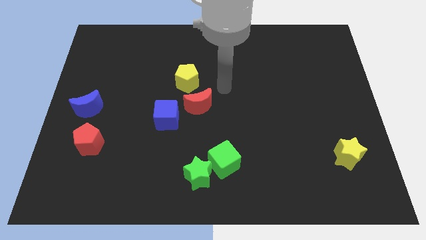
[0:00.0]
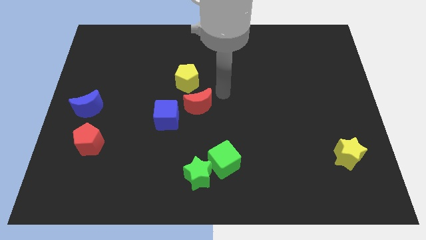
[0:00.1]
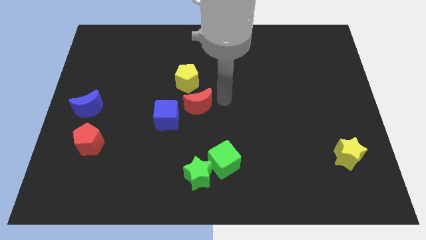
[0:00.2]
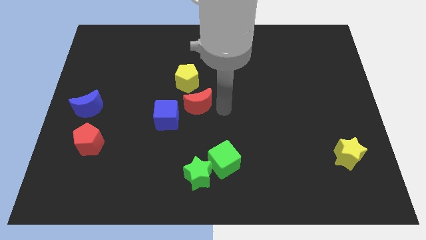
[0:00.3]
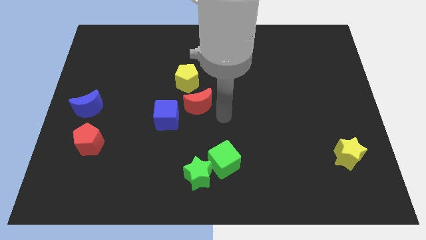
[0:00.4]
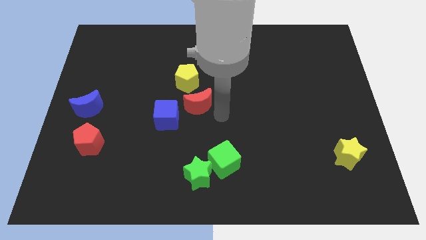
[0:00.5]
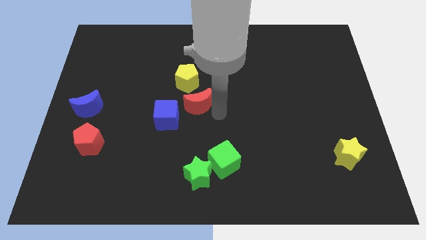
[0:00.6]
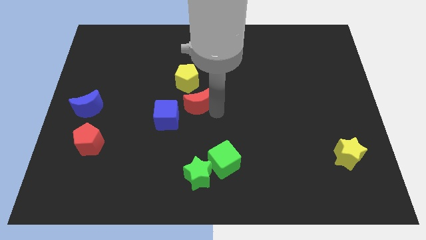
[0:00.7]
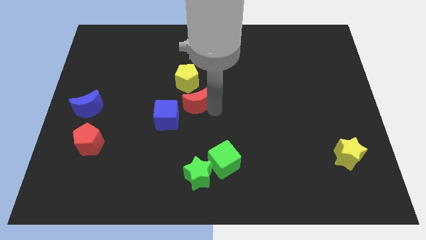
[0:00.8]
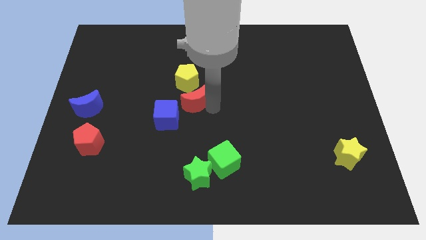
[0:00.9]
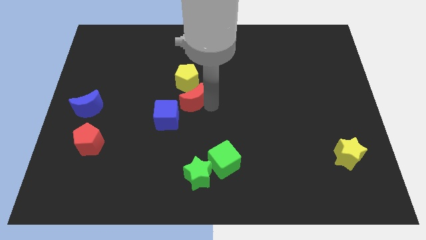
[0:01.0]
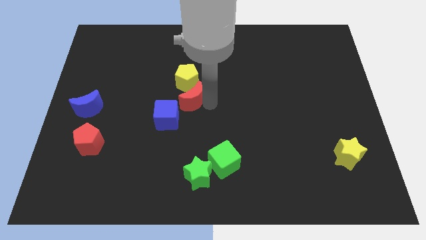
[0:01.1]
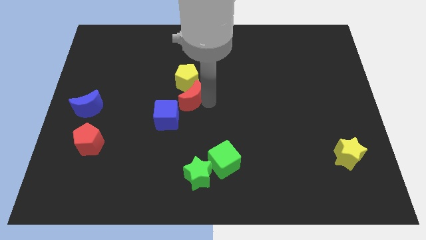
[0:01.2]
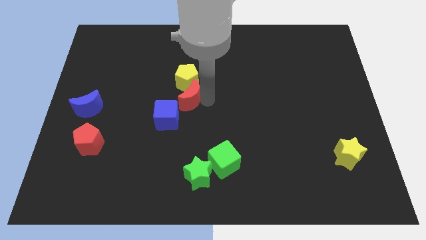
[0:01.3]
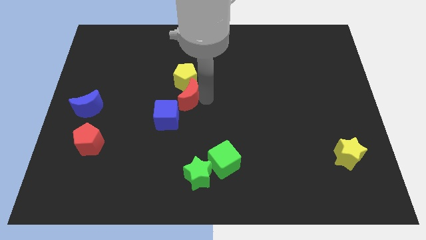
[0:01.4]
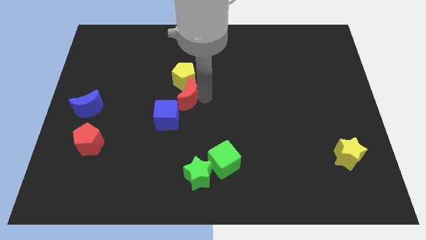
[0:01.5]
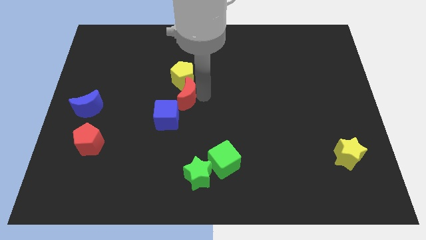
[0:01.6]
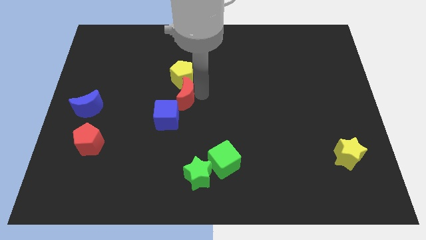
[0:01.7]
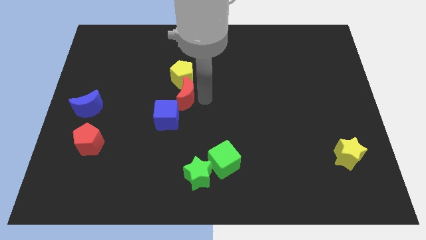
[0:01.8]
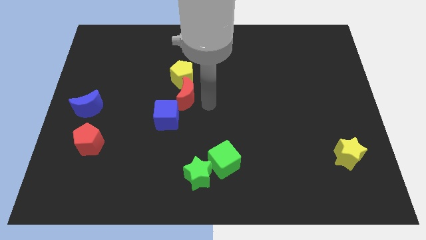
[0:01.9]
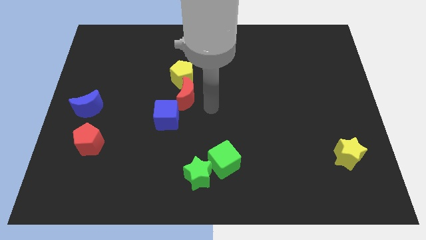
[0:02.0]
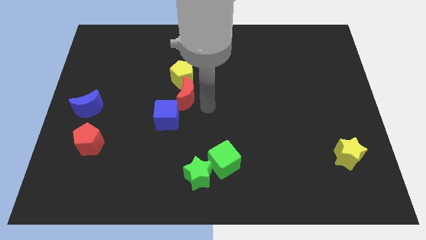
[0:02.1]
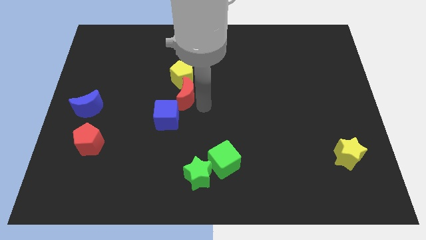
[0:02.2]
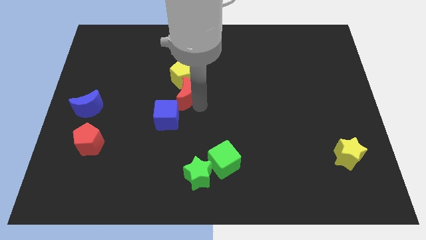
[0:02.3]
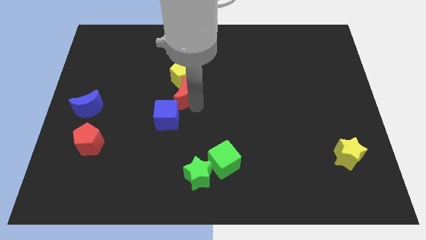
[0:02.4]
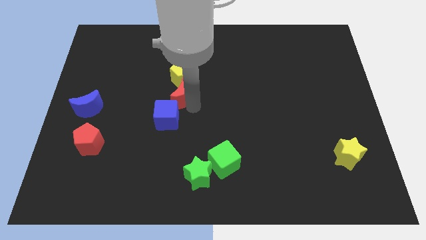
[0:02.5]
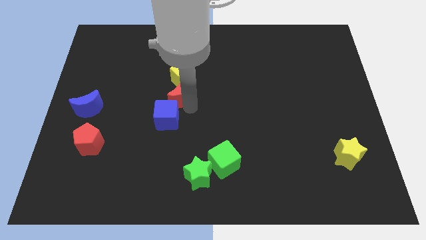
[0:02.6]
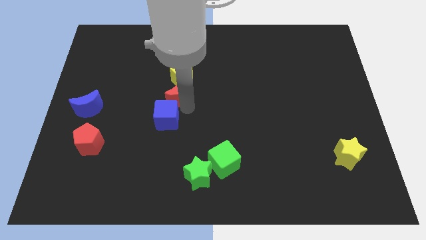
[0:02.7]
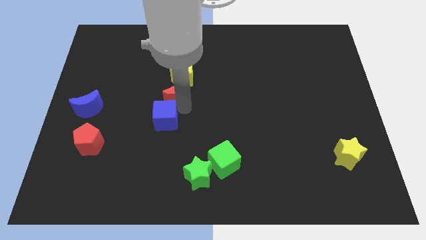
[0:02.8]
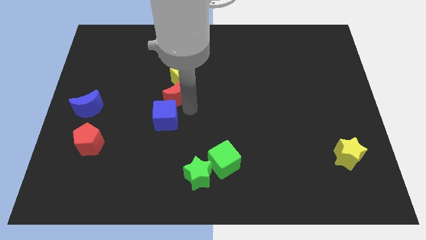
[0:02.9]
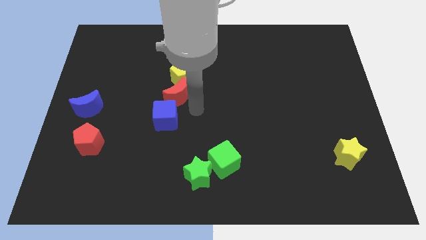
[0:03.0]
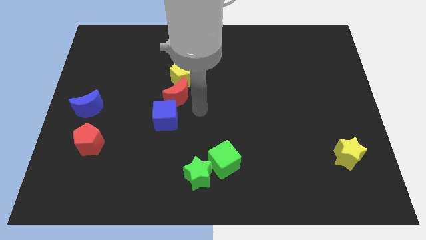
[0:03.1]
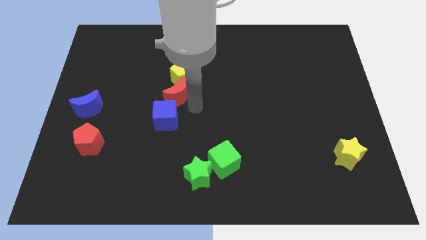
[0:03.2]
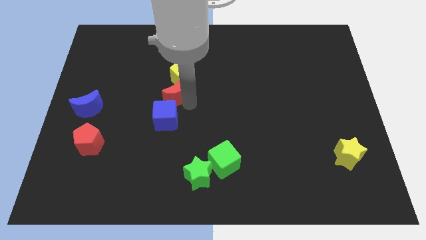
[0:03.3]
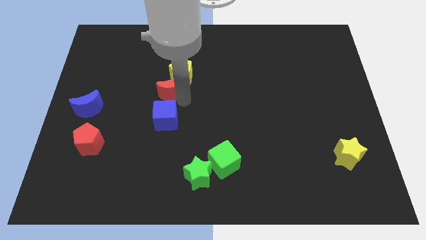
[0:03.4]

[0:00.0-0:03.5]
push the red moon a bit upwards and to the left diagonally

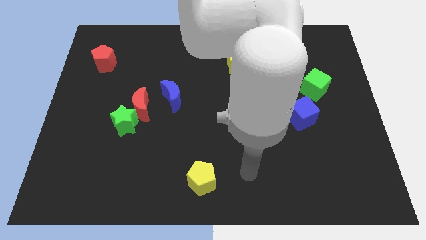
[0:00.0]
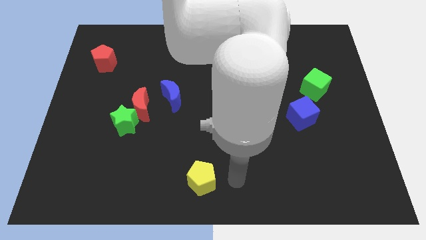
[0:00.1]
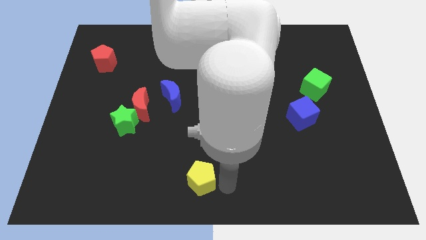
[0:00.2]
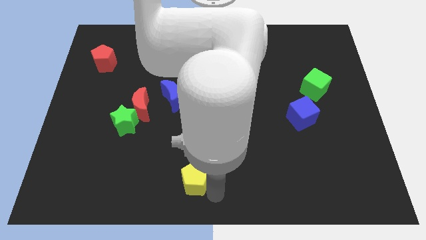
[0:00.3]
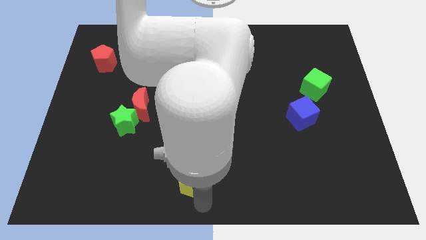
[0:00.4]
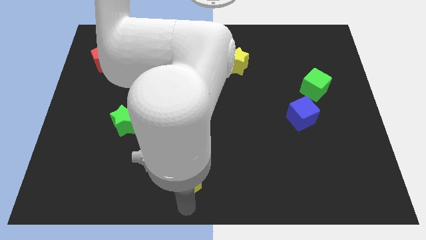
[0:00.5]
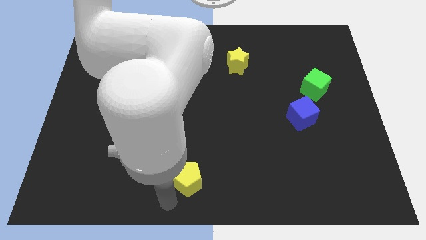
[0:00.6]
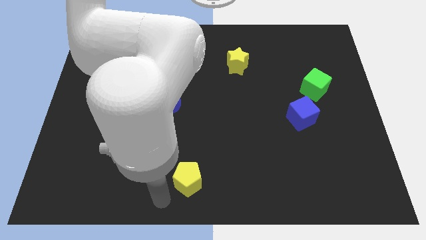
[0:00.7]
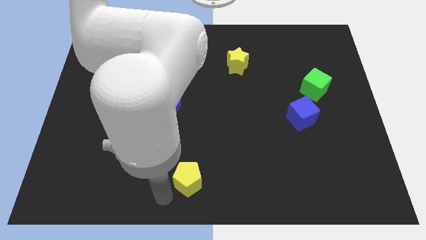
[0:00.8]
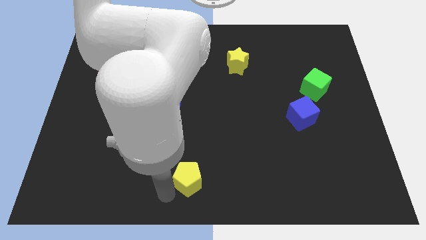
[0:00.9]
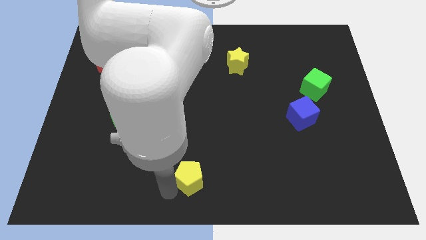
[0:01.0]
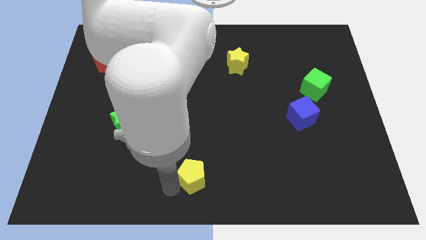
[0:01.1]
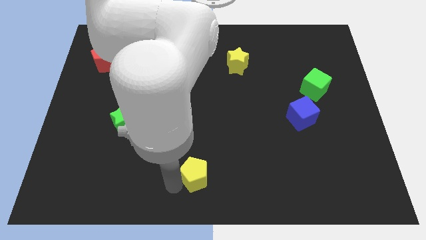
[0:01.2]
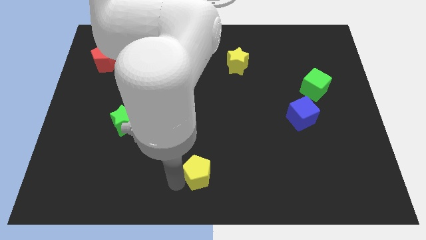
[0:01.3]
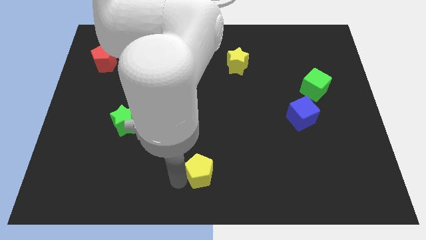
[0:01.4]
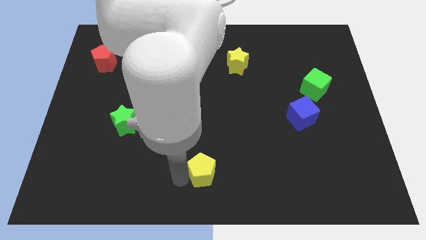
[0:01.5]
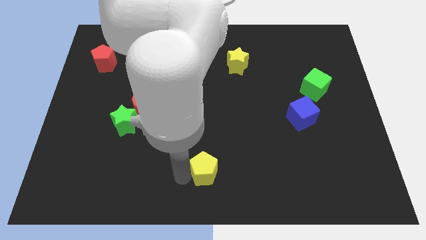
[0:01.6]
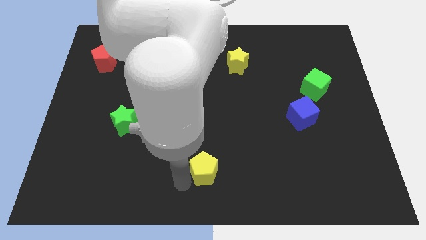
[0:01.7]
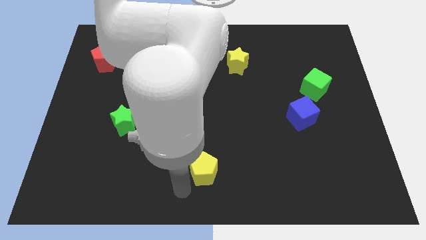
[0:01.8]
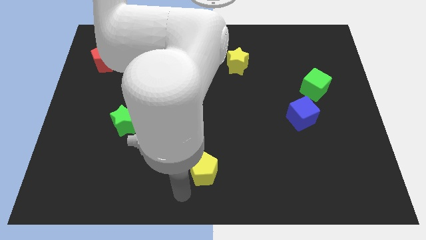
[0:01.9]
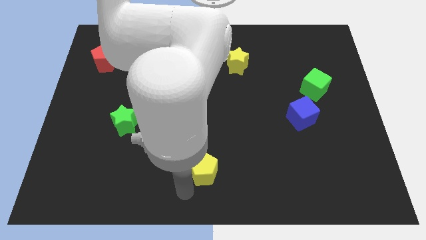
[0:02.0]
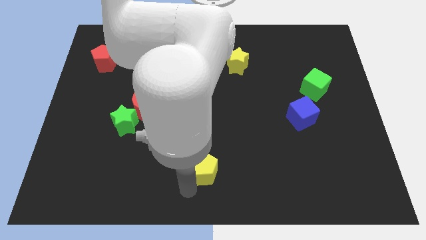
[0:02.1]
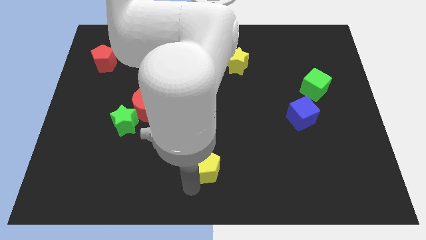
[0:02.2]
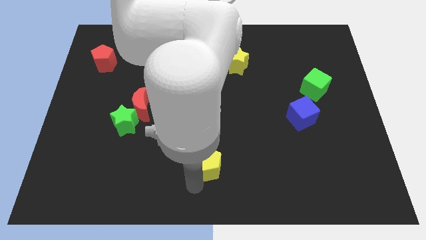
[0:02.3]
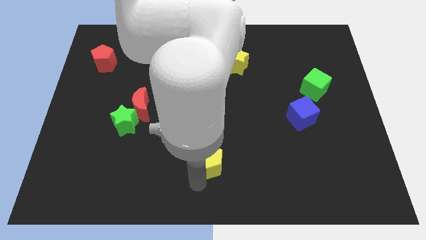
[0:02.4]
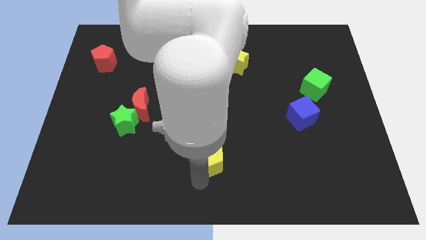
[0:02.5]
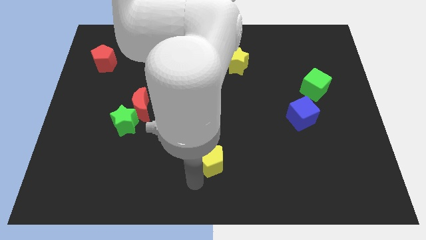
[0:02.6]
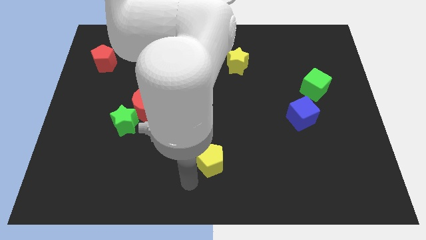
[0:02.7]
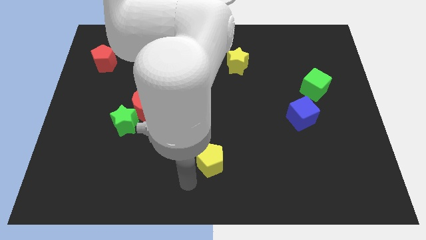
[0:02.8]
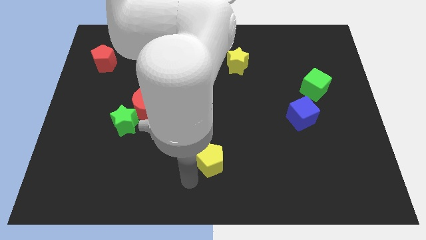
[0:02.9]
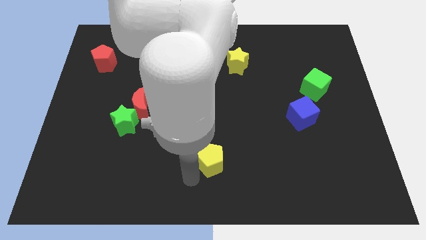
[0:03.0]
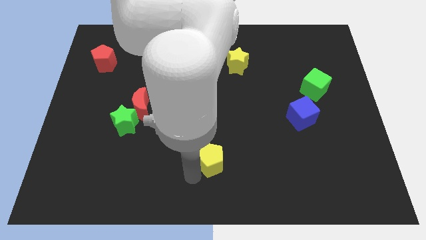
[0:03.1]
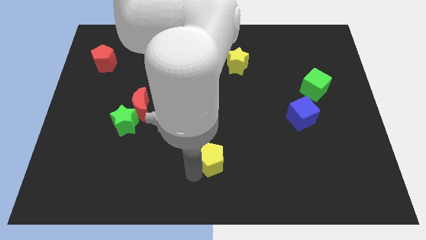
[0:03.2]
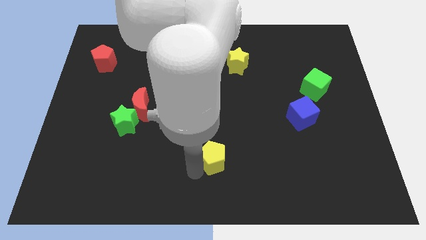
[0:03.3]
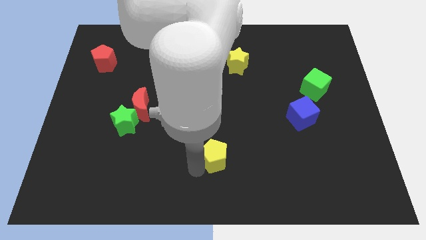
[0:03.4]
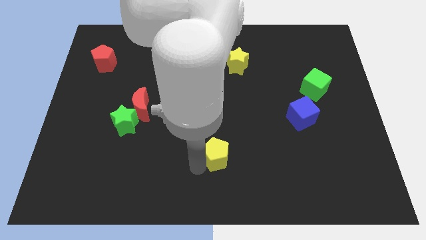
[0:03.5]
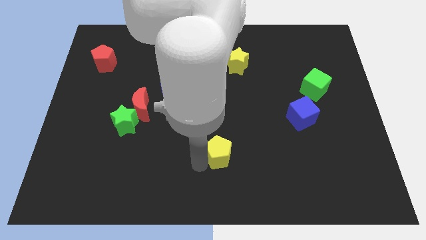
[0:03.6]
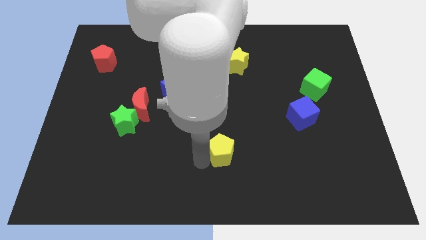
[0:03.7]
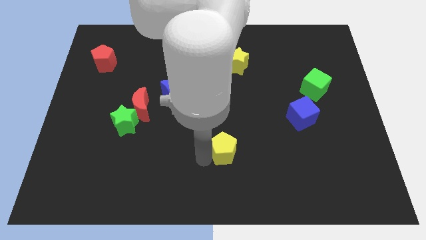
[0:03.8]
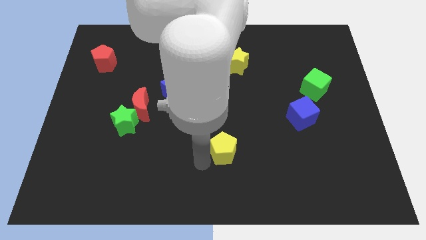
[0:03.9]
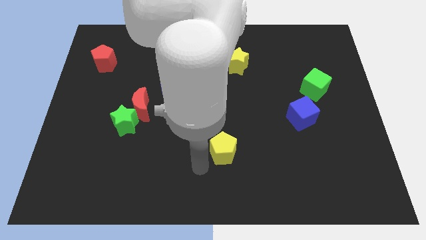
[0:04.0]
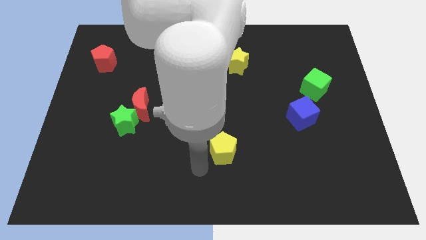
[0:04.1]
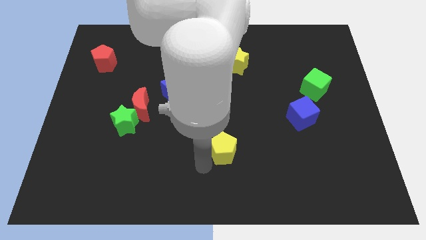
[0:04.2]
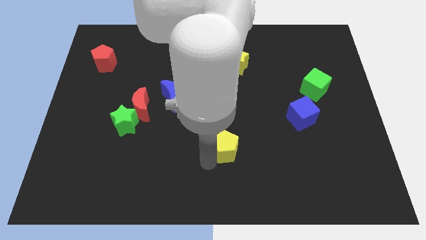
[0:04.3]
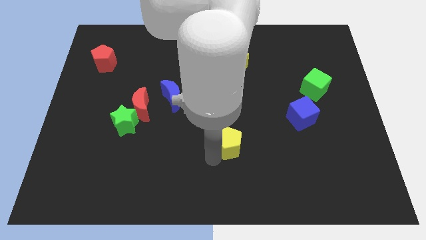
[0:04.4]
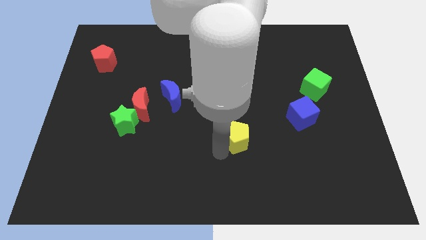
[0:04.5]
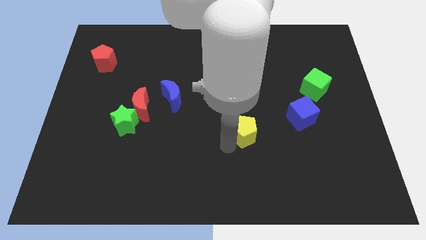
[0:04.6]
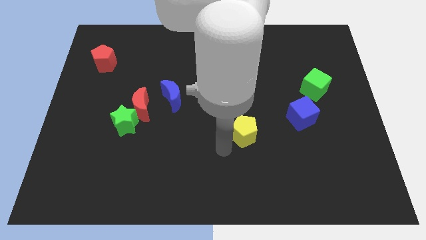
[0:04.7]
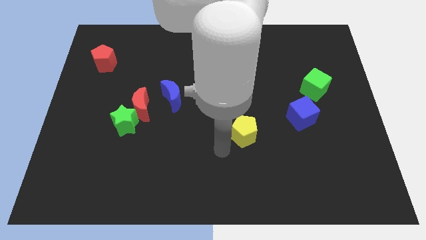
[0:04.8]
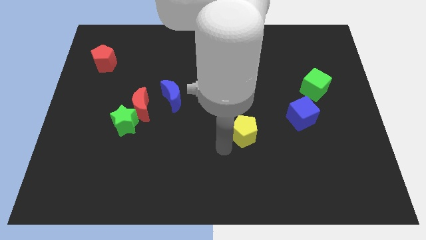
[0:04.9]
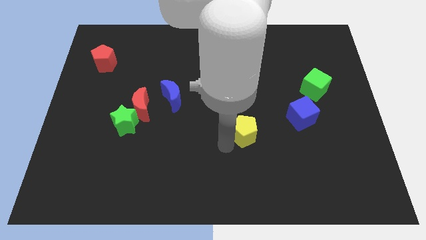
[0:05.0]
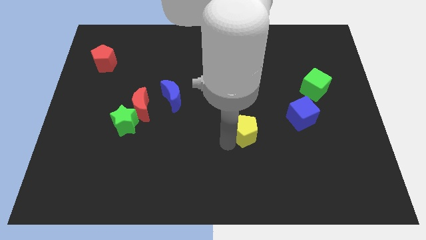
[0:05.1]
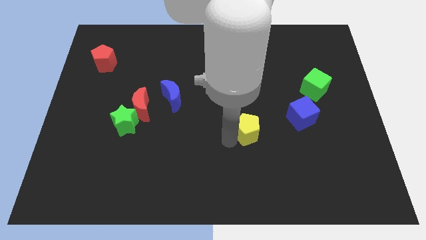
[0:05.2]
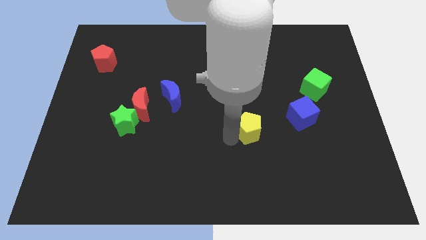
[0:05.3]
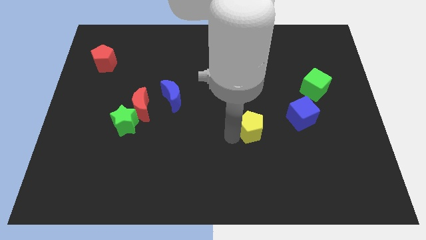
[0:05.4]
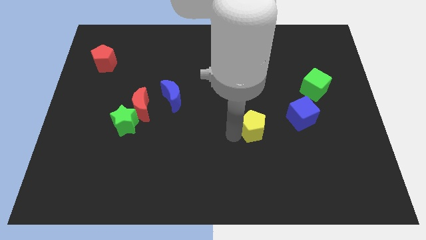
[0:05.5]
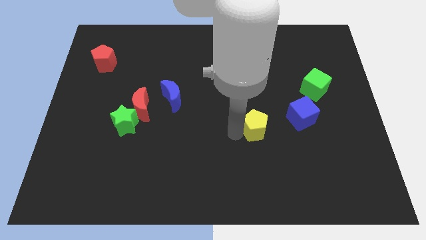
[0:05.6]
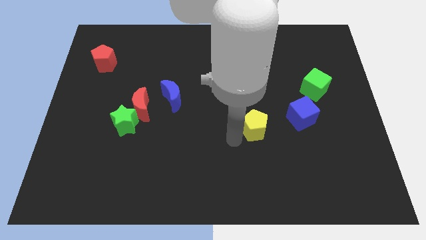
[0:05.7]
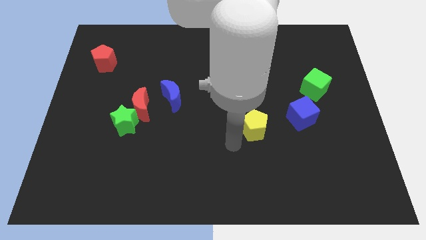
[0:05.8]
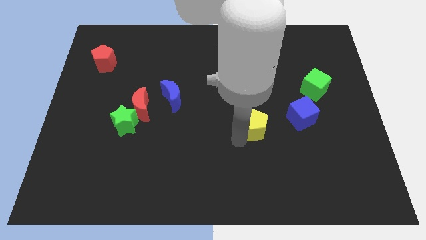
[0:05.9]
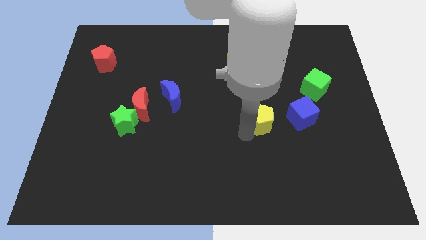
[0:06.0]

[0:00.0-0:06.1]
move the yellow pentagon upwards and right
